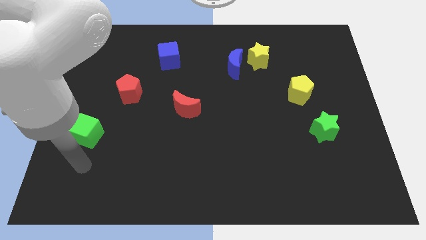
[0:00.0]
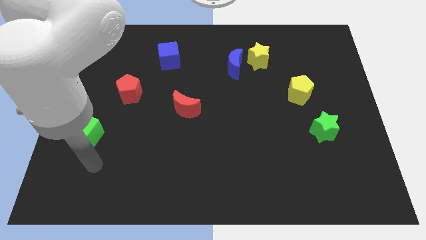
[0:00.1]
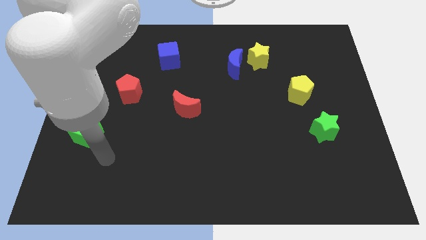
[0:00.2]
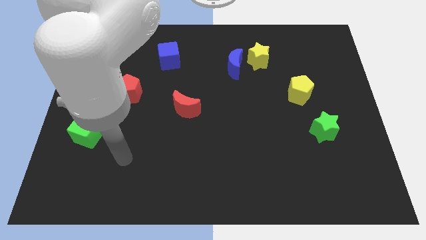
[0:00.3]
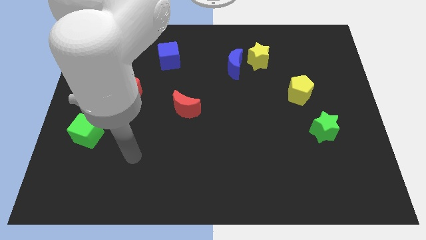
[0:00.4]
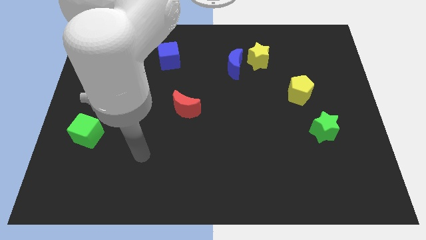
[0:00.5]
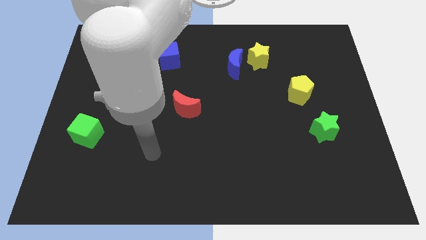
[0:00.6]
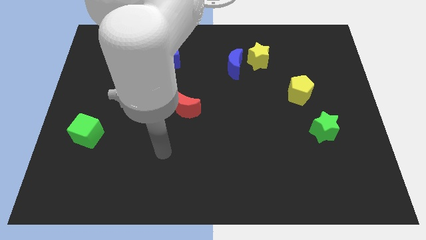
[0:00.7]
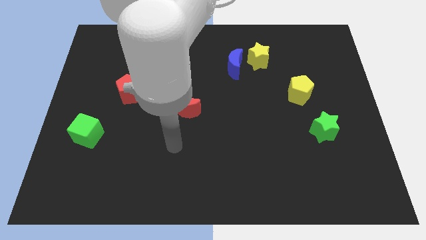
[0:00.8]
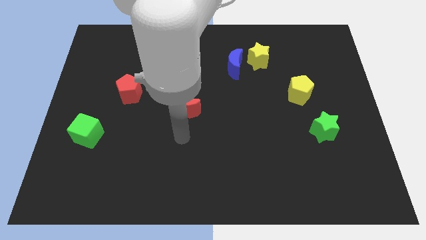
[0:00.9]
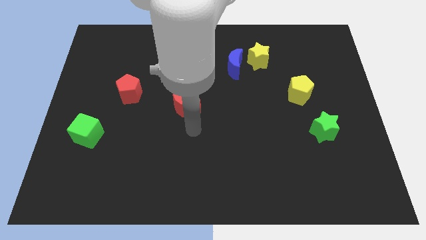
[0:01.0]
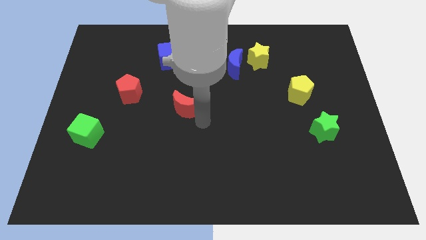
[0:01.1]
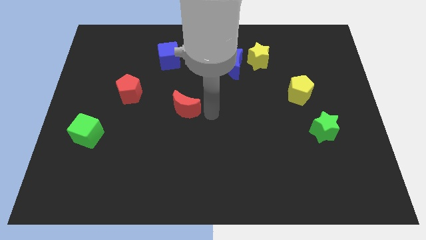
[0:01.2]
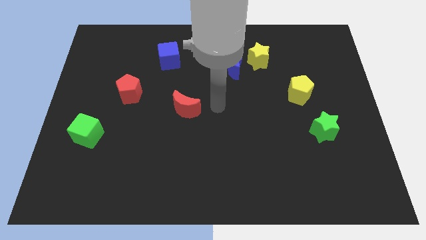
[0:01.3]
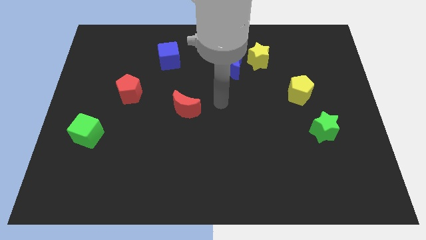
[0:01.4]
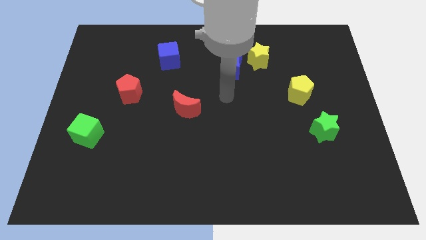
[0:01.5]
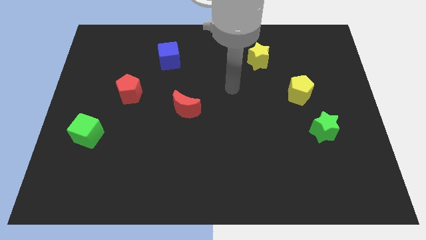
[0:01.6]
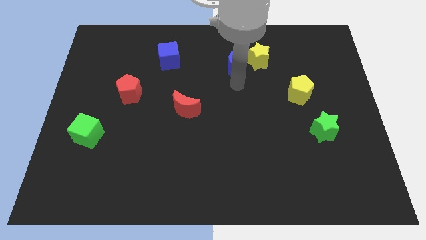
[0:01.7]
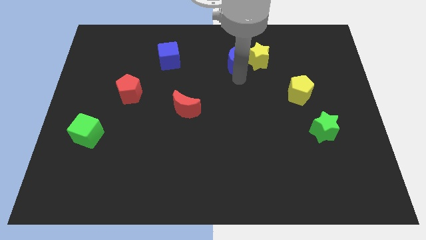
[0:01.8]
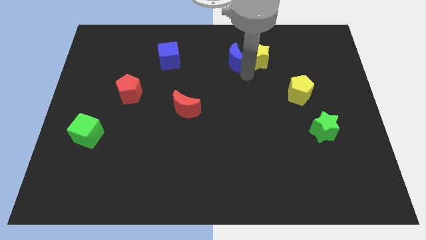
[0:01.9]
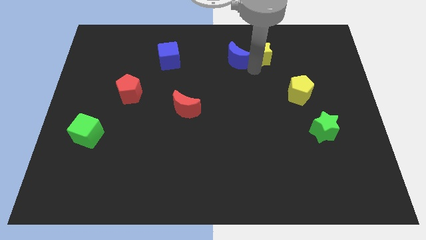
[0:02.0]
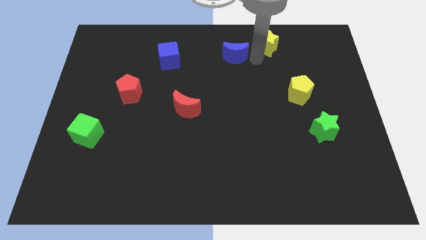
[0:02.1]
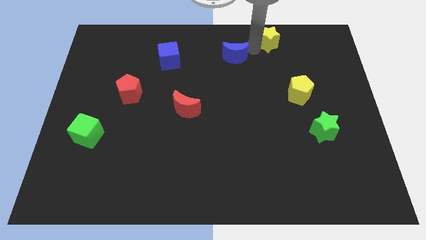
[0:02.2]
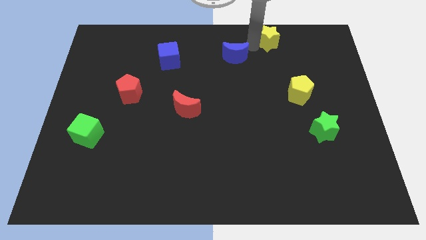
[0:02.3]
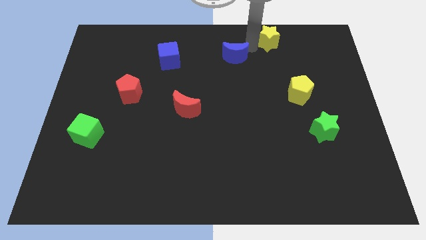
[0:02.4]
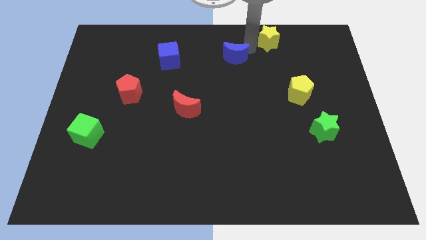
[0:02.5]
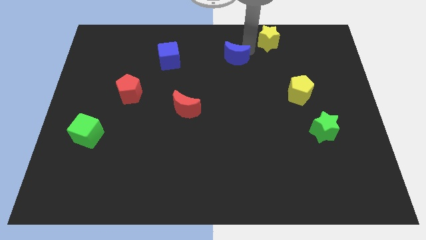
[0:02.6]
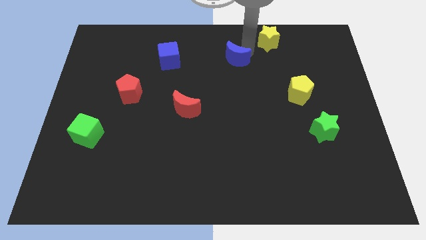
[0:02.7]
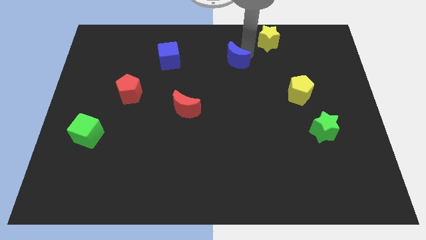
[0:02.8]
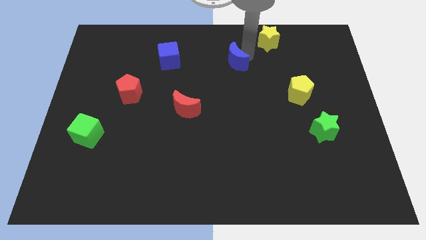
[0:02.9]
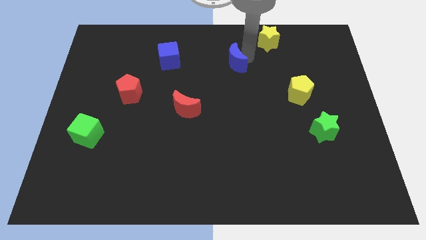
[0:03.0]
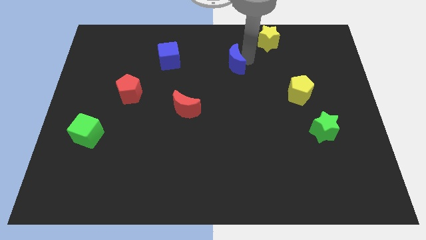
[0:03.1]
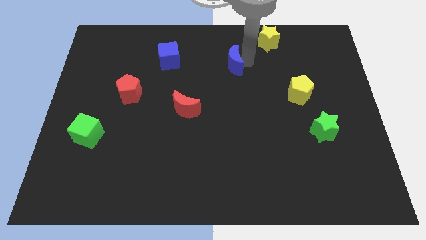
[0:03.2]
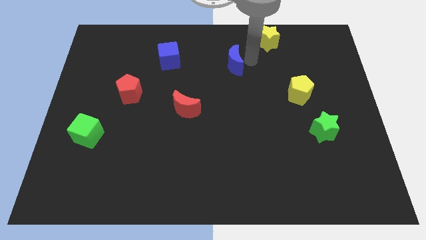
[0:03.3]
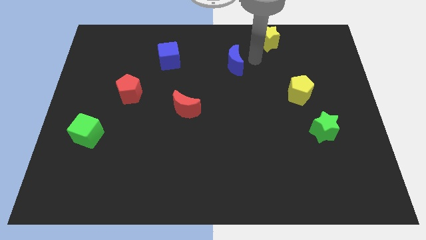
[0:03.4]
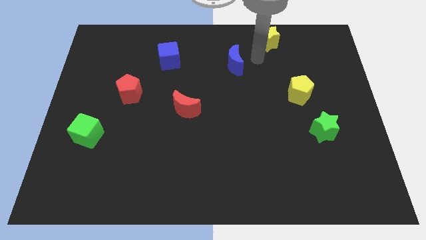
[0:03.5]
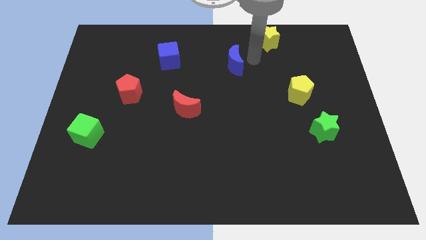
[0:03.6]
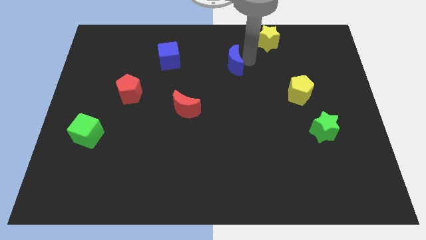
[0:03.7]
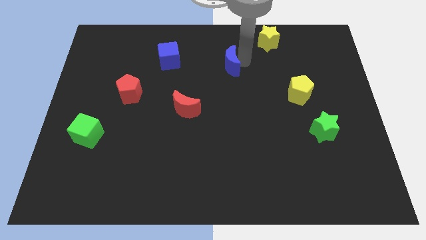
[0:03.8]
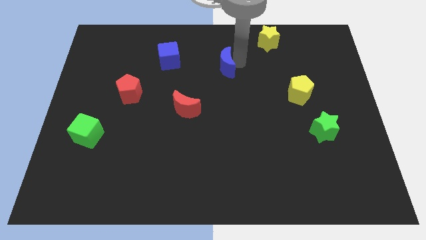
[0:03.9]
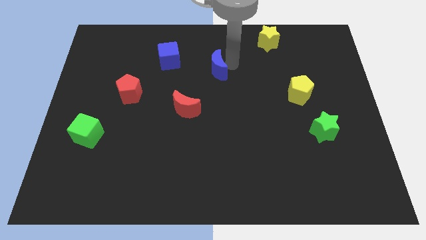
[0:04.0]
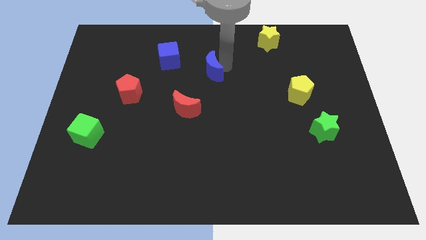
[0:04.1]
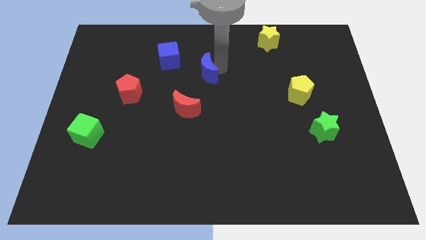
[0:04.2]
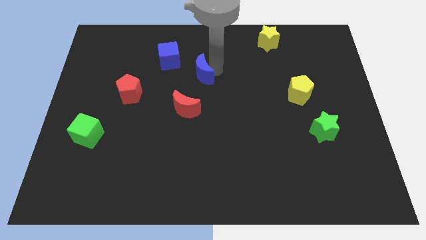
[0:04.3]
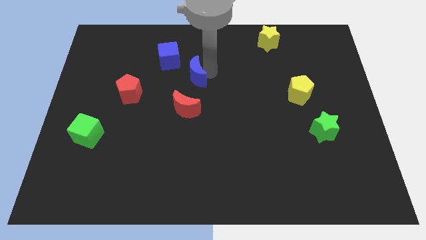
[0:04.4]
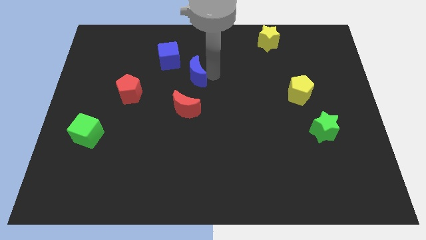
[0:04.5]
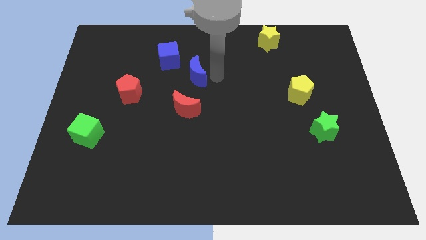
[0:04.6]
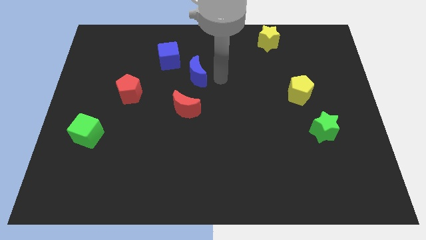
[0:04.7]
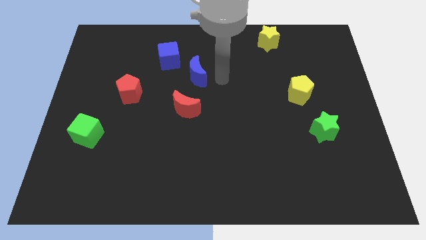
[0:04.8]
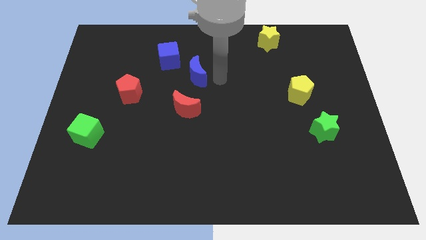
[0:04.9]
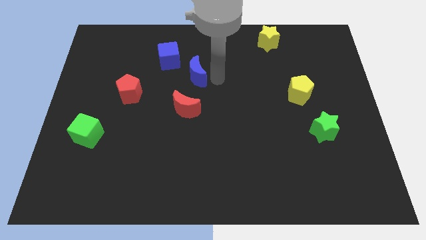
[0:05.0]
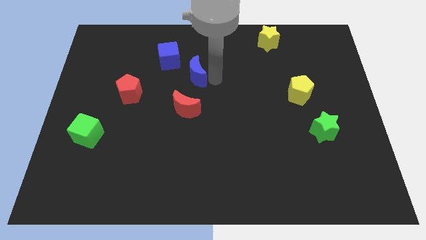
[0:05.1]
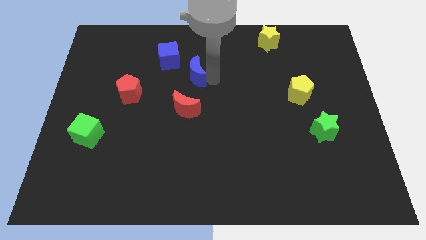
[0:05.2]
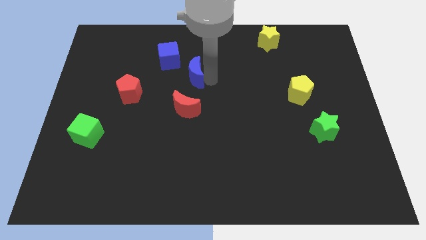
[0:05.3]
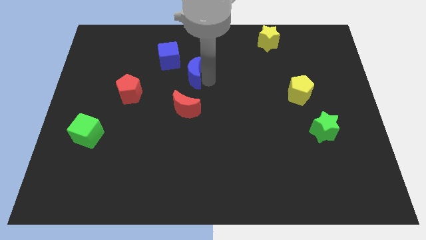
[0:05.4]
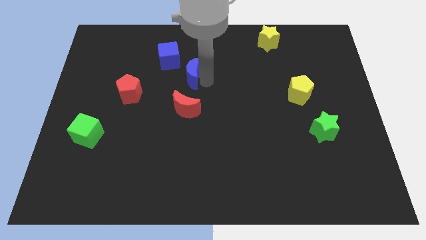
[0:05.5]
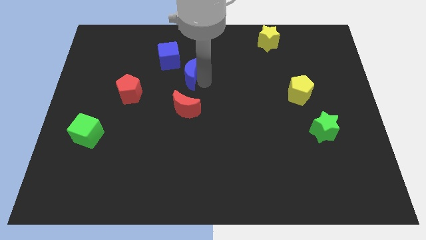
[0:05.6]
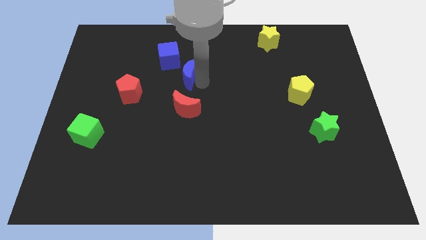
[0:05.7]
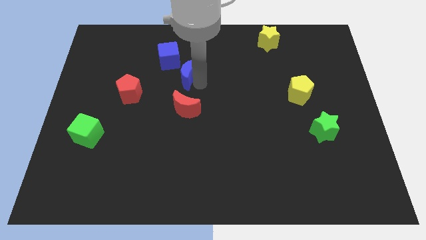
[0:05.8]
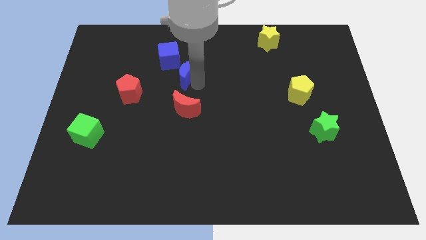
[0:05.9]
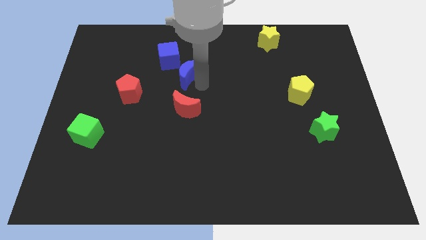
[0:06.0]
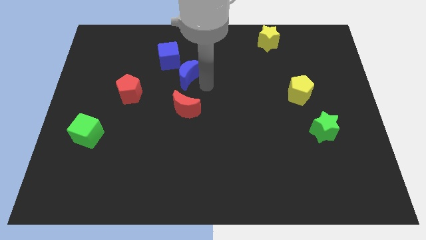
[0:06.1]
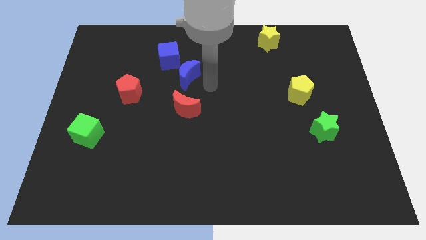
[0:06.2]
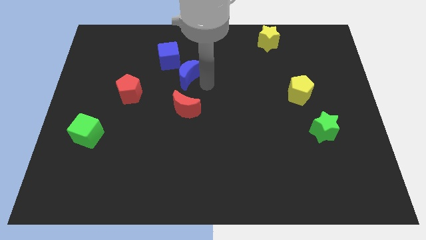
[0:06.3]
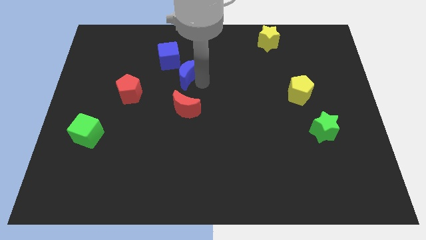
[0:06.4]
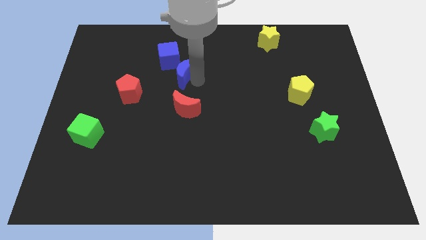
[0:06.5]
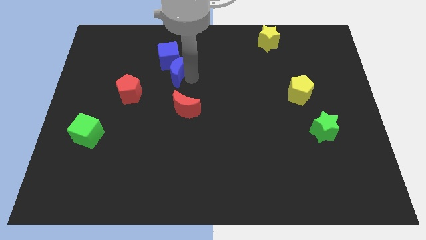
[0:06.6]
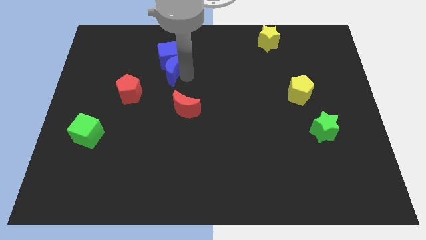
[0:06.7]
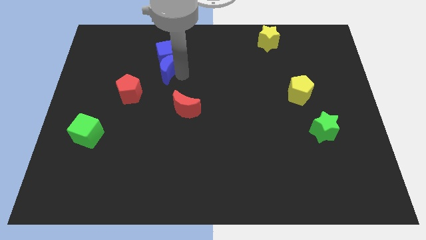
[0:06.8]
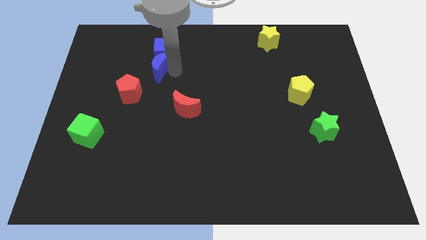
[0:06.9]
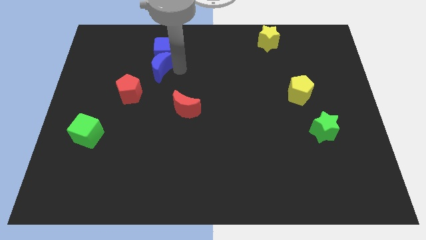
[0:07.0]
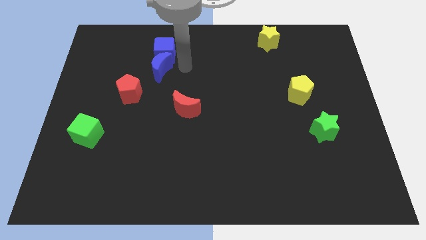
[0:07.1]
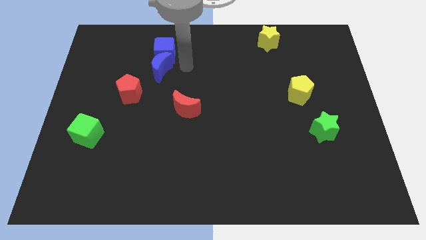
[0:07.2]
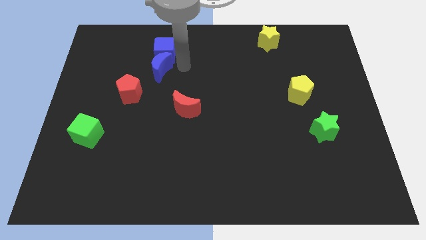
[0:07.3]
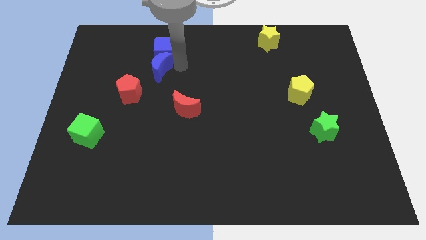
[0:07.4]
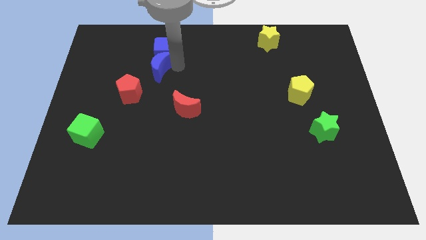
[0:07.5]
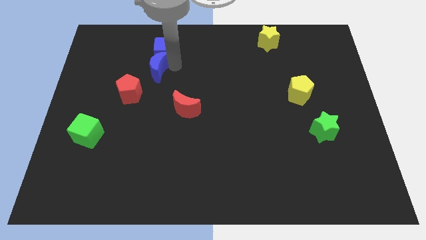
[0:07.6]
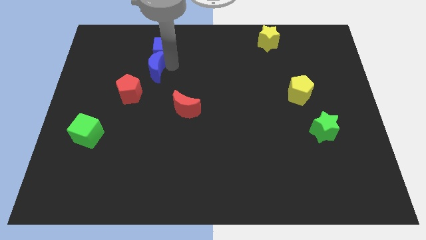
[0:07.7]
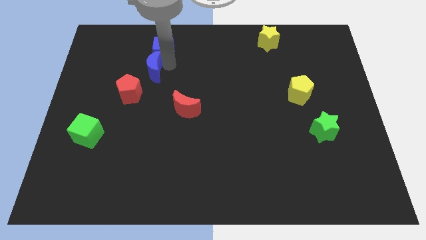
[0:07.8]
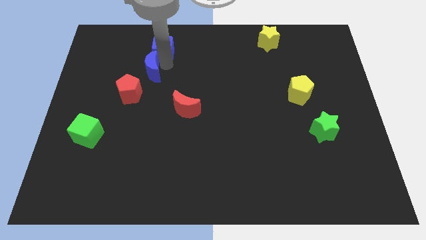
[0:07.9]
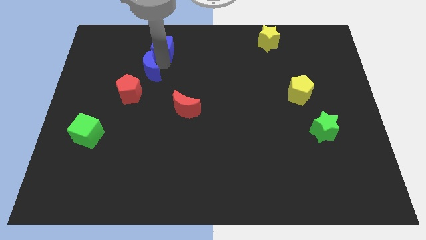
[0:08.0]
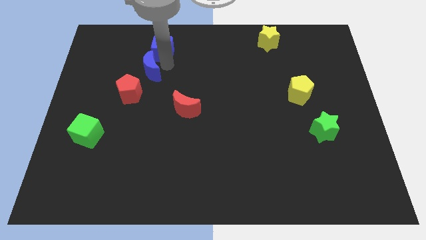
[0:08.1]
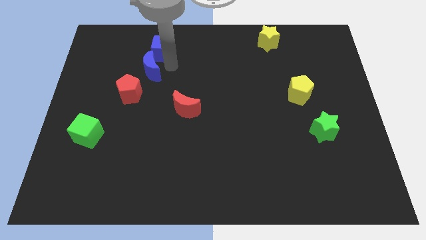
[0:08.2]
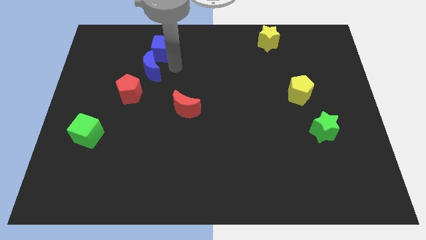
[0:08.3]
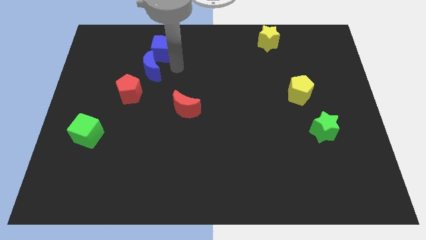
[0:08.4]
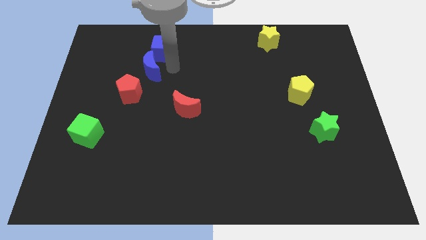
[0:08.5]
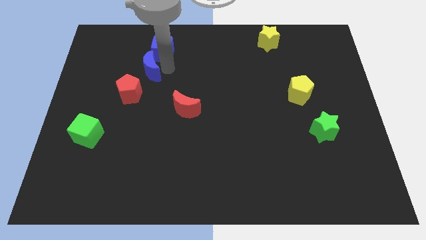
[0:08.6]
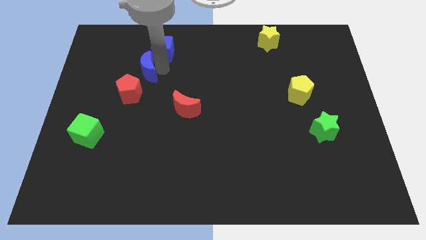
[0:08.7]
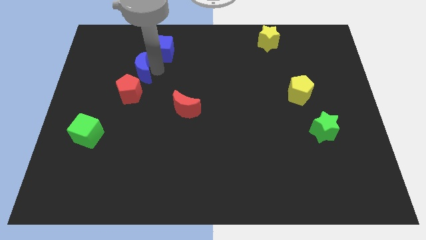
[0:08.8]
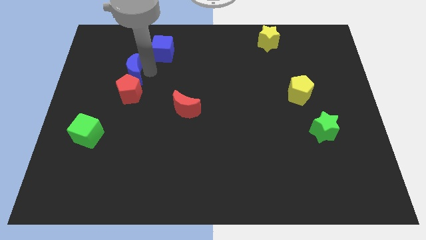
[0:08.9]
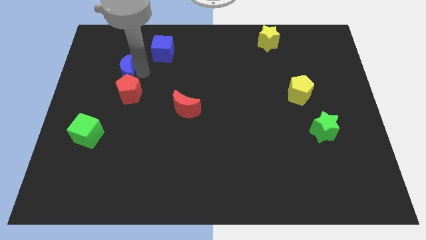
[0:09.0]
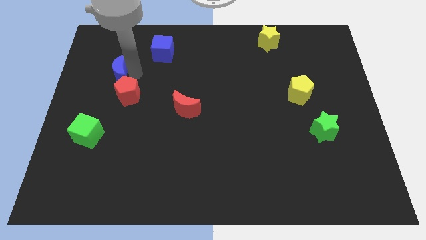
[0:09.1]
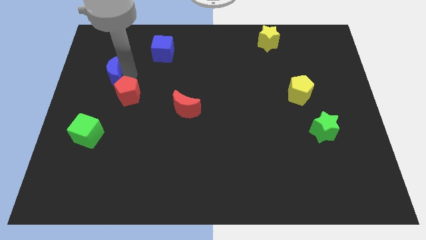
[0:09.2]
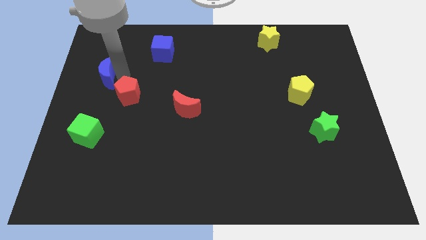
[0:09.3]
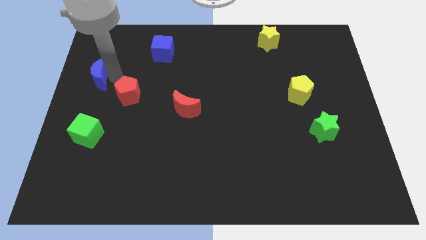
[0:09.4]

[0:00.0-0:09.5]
move the blue moon to the center left
